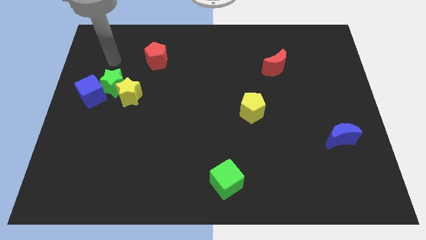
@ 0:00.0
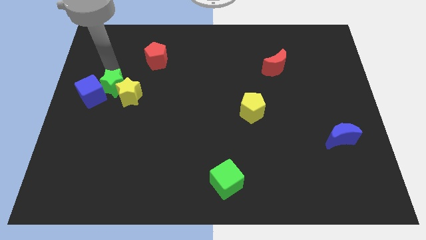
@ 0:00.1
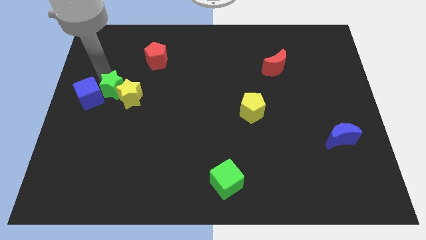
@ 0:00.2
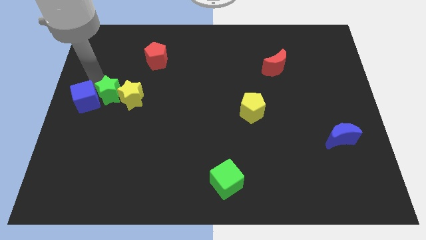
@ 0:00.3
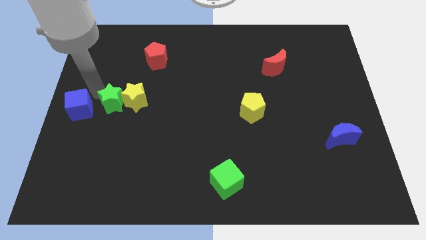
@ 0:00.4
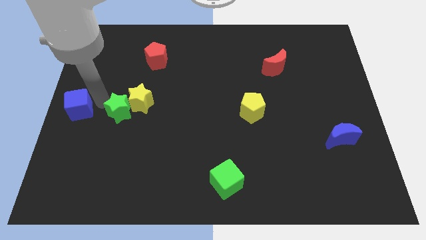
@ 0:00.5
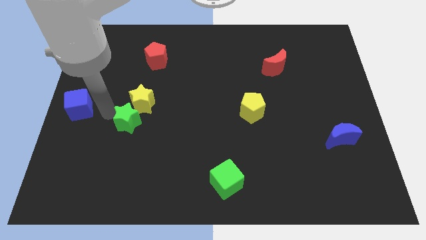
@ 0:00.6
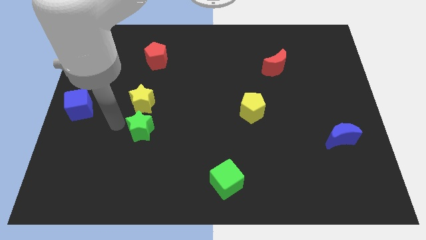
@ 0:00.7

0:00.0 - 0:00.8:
separate the green star from the yellow star and blue cube

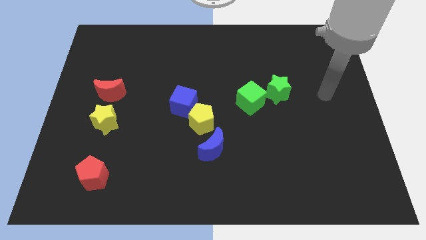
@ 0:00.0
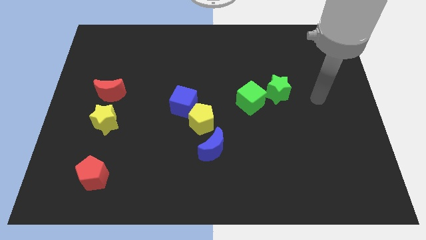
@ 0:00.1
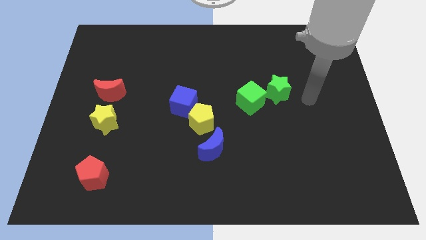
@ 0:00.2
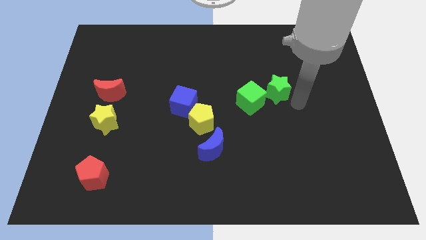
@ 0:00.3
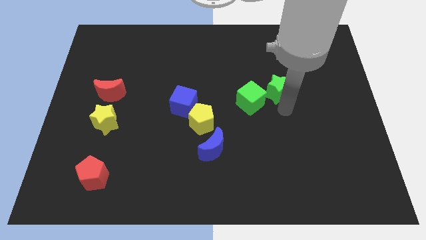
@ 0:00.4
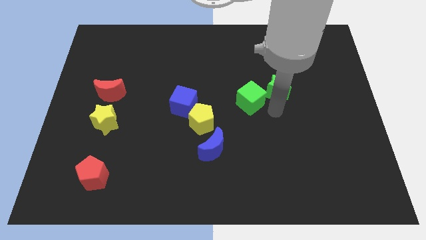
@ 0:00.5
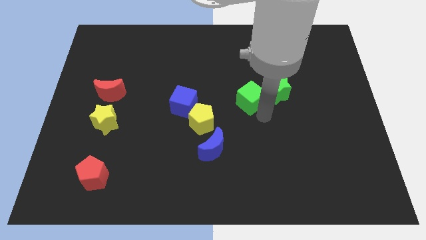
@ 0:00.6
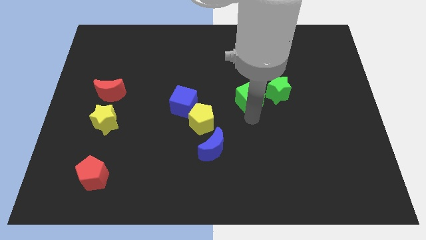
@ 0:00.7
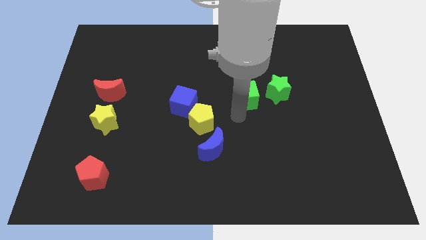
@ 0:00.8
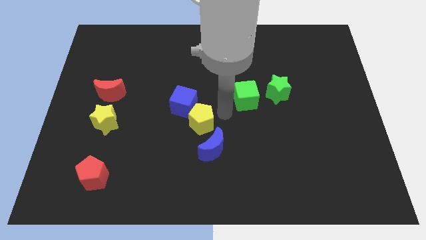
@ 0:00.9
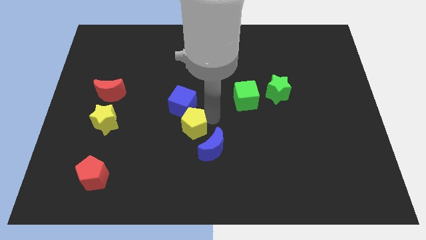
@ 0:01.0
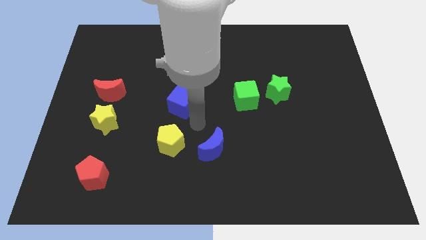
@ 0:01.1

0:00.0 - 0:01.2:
move the blue cube away from the yellow pentagon

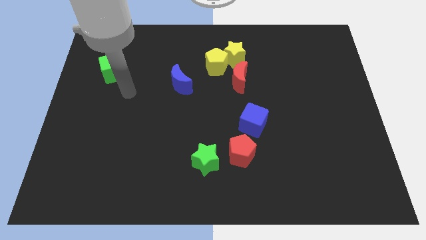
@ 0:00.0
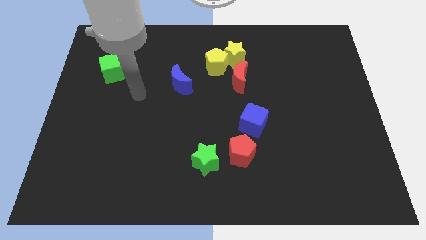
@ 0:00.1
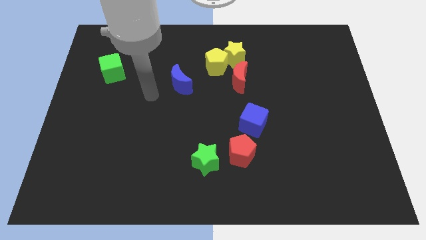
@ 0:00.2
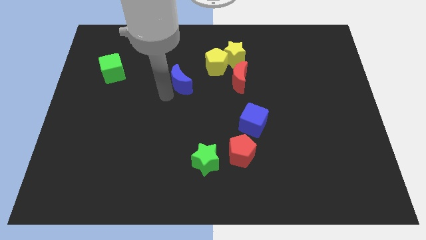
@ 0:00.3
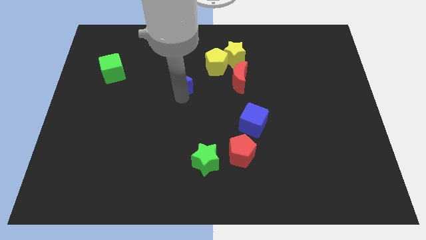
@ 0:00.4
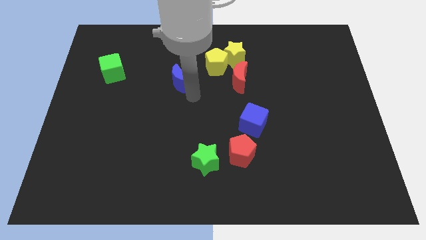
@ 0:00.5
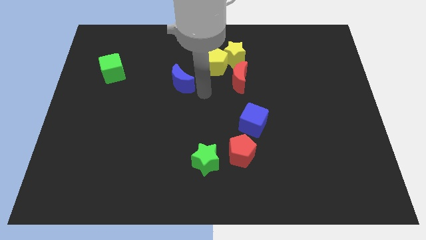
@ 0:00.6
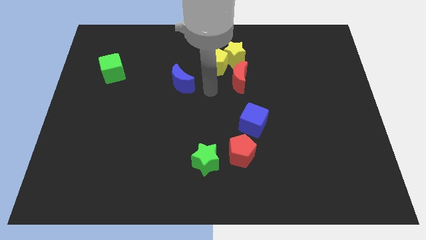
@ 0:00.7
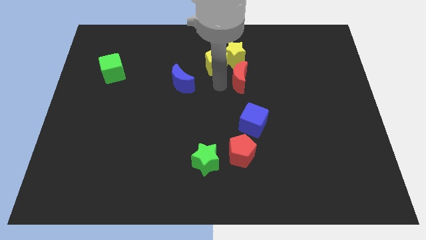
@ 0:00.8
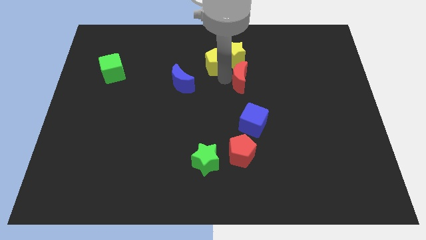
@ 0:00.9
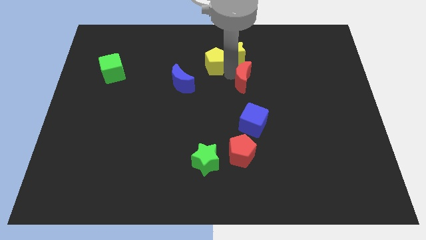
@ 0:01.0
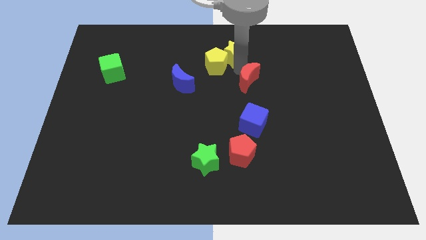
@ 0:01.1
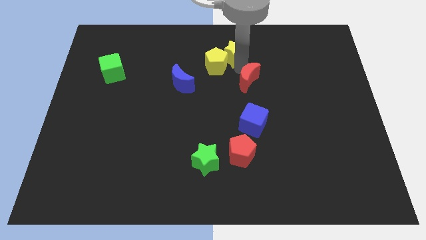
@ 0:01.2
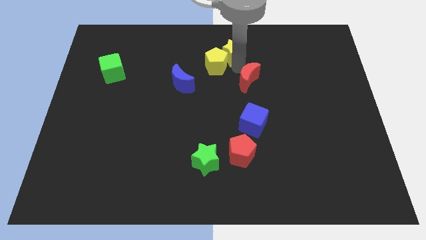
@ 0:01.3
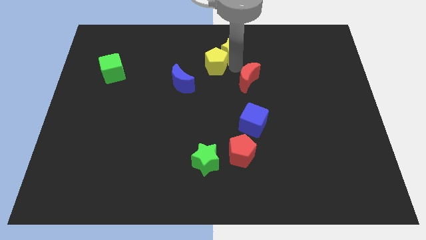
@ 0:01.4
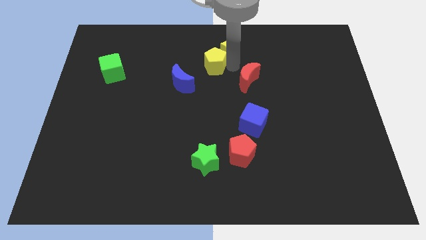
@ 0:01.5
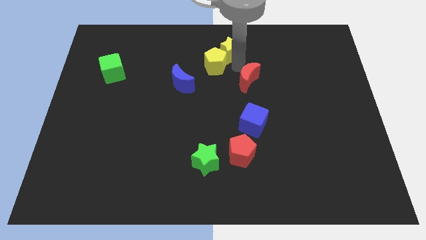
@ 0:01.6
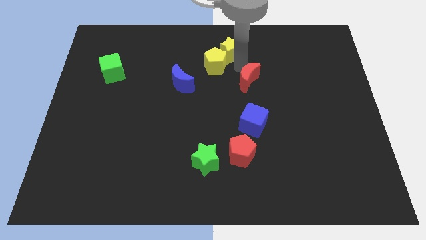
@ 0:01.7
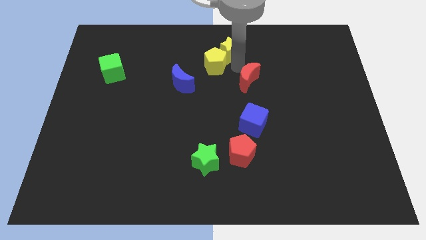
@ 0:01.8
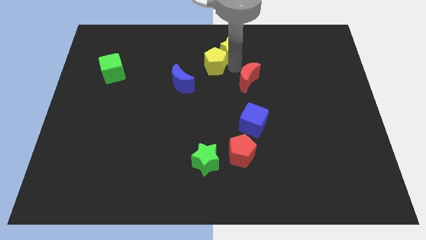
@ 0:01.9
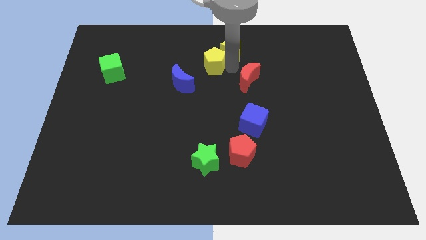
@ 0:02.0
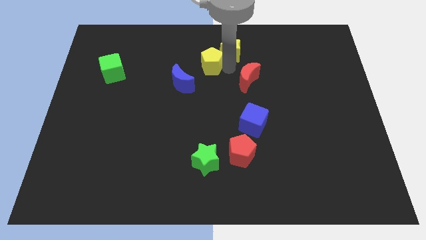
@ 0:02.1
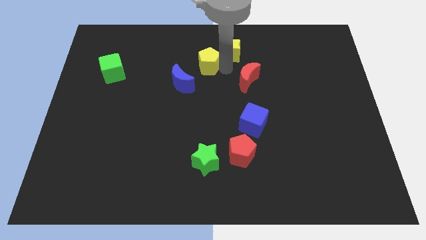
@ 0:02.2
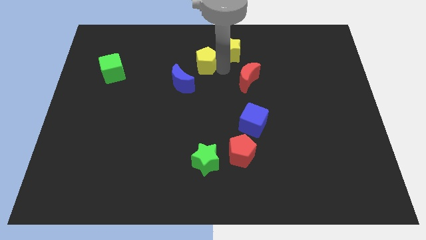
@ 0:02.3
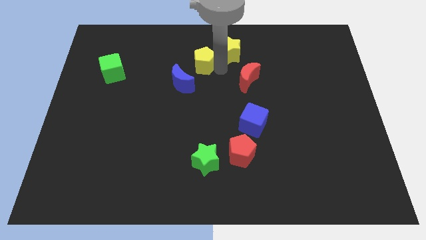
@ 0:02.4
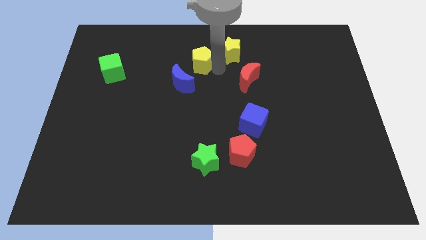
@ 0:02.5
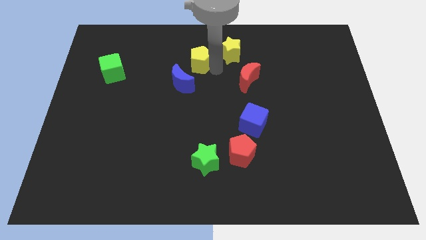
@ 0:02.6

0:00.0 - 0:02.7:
move the yellow pentagon away from the yellow star and red moon

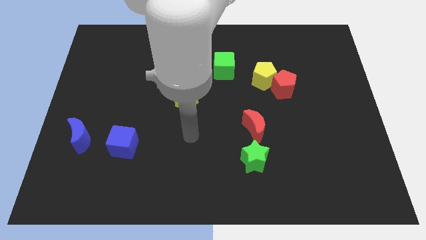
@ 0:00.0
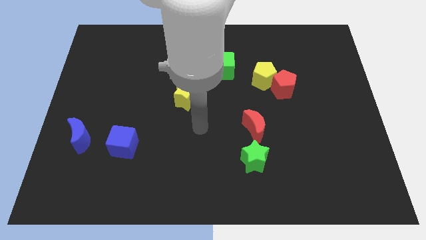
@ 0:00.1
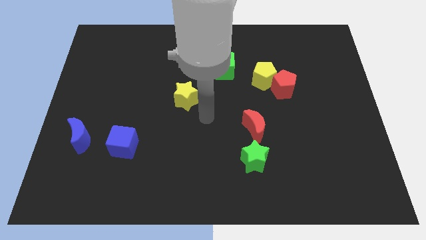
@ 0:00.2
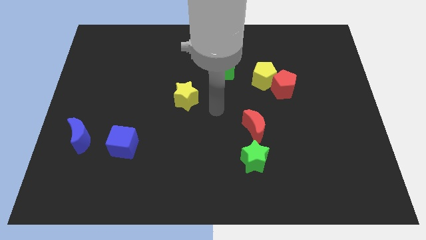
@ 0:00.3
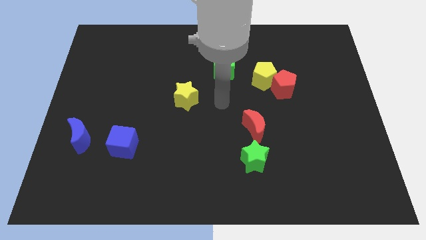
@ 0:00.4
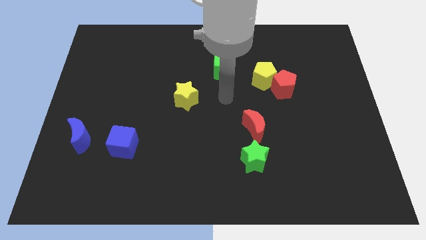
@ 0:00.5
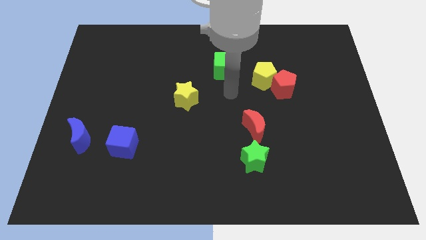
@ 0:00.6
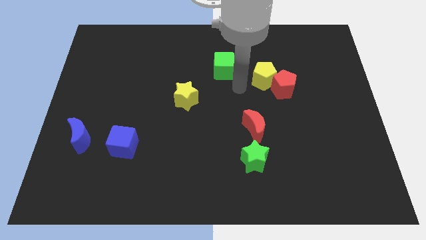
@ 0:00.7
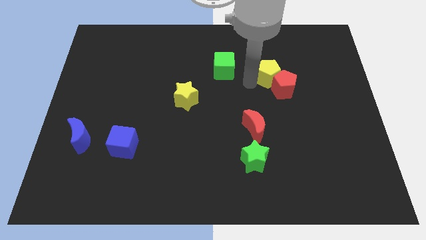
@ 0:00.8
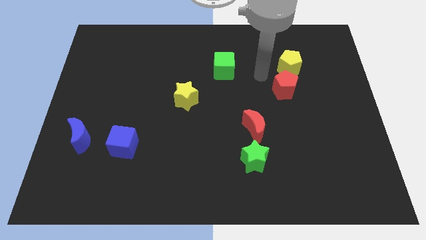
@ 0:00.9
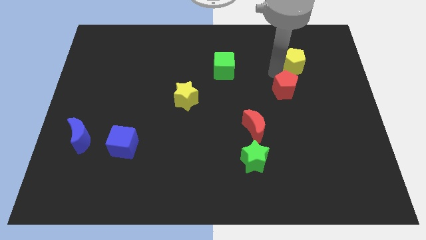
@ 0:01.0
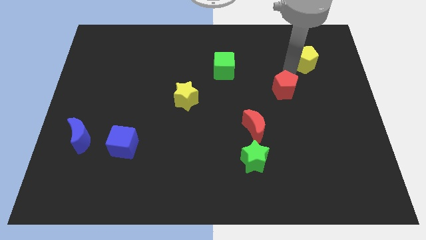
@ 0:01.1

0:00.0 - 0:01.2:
separate the red pentagon from the yellow pentagon

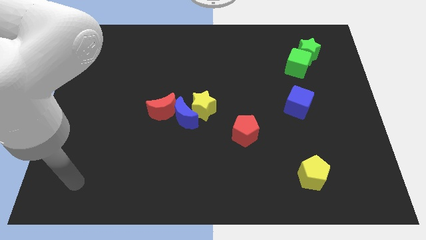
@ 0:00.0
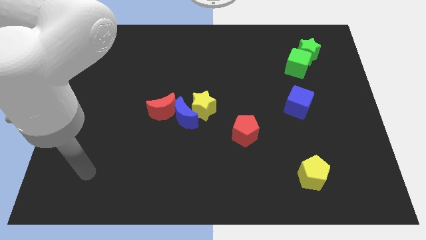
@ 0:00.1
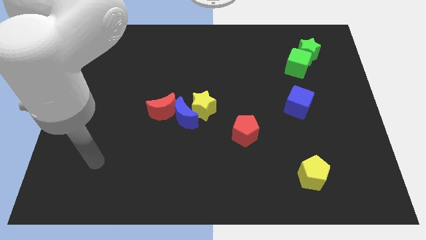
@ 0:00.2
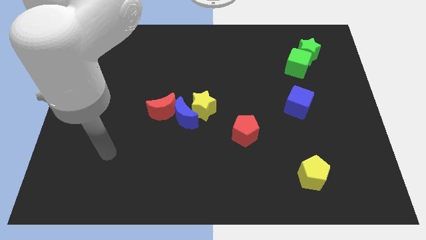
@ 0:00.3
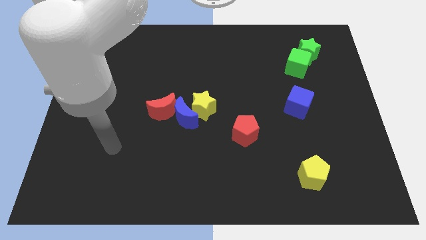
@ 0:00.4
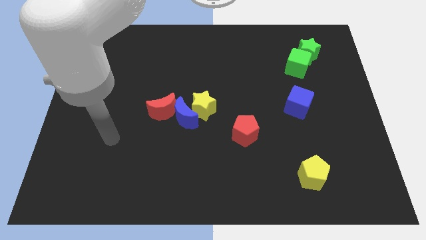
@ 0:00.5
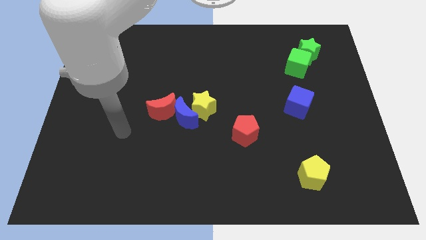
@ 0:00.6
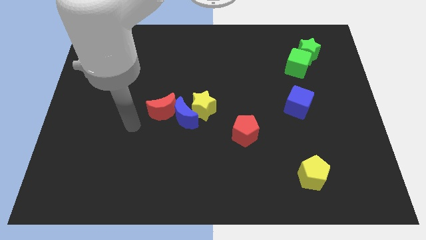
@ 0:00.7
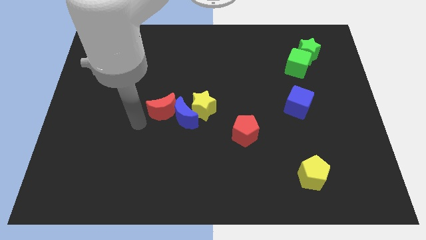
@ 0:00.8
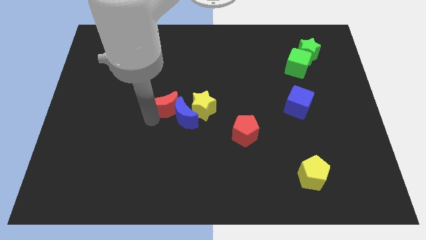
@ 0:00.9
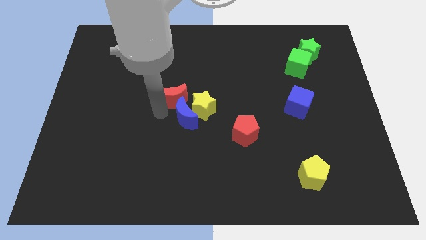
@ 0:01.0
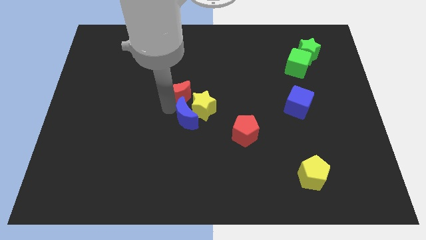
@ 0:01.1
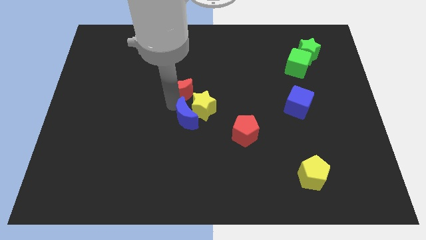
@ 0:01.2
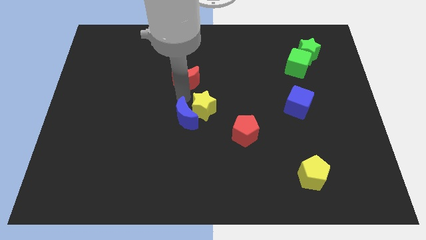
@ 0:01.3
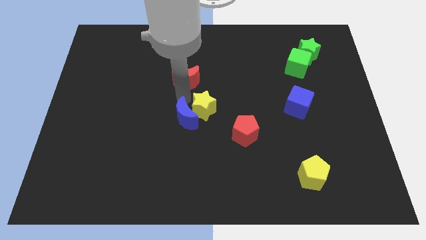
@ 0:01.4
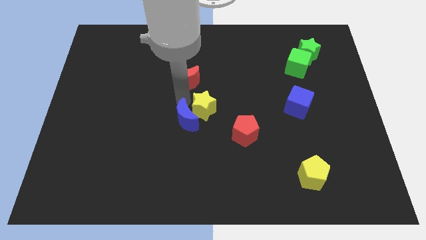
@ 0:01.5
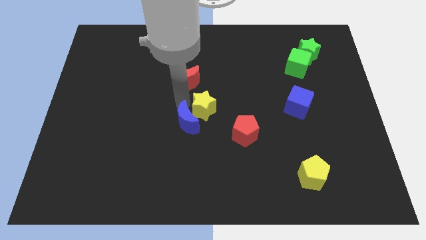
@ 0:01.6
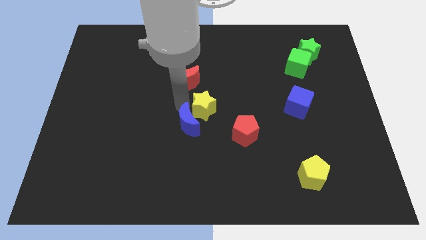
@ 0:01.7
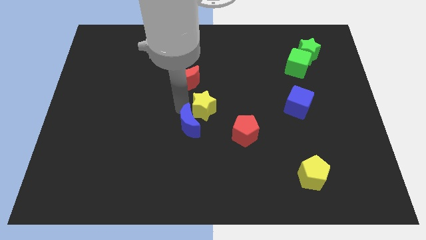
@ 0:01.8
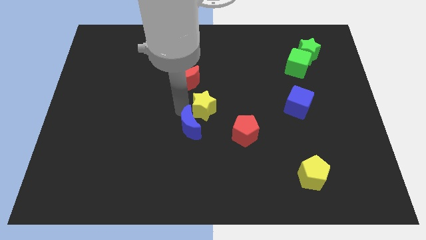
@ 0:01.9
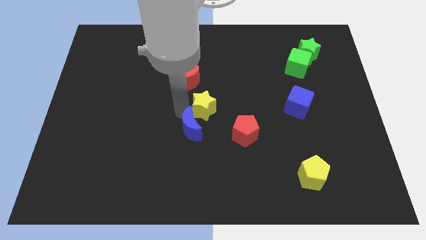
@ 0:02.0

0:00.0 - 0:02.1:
separate the blue moon from the yellow star and red moon

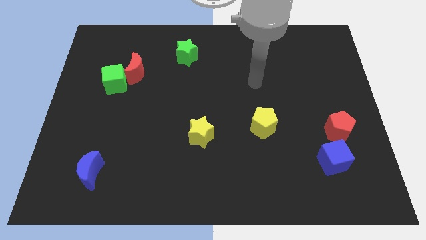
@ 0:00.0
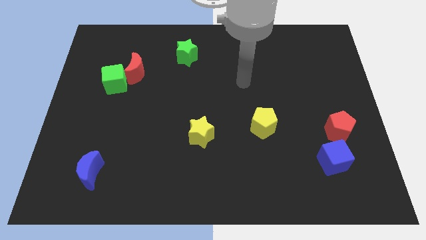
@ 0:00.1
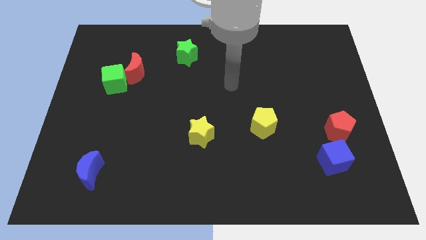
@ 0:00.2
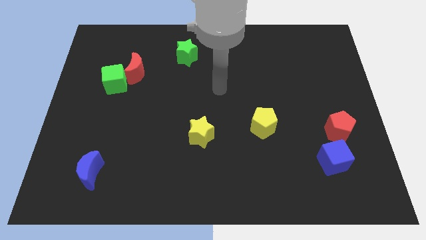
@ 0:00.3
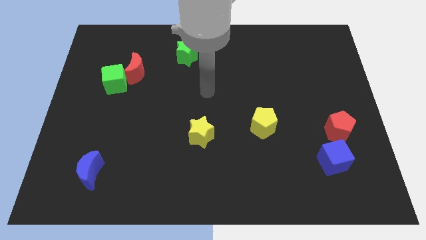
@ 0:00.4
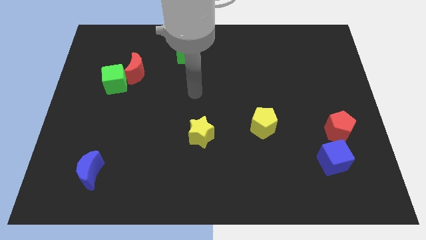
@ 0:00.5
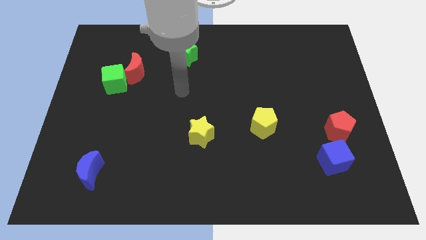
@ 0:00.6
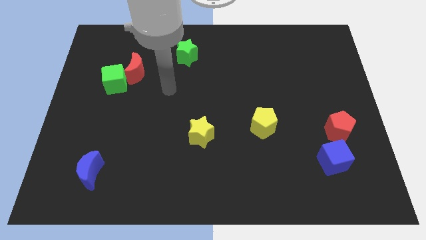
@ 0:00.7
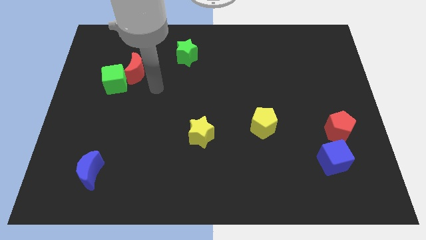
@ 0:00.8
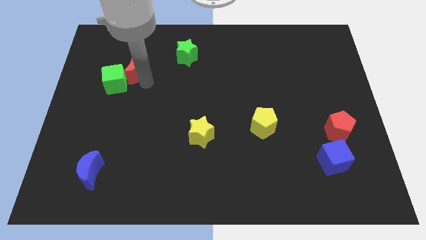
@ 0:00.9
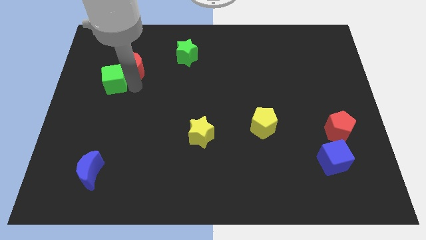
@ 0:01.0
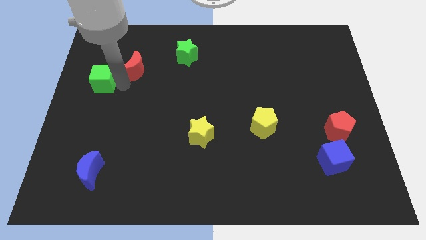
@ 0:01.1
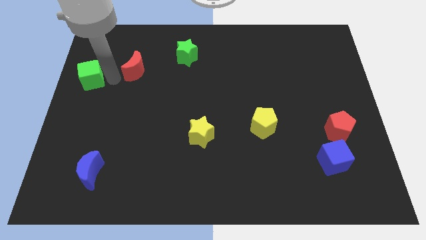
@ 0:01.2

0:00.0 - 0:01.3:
separate the red moon from the green cube
